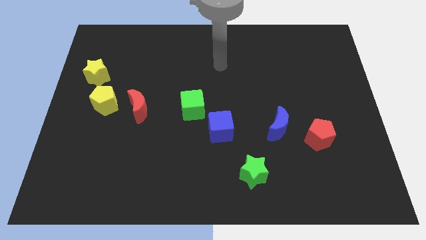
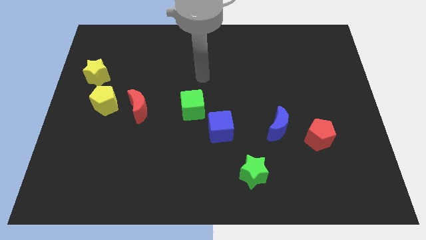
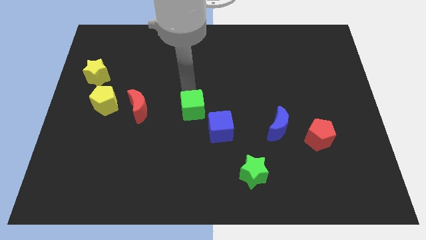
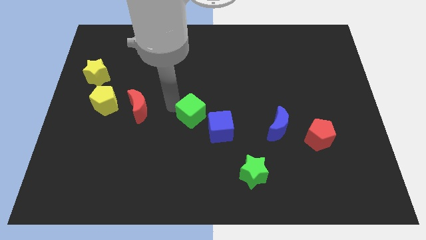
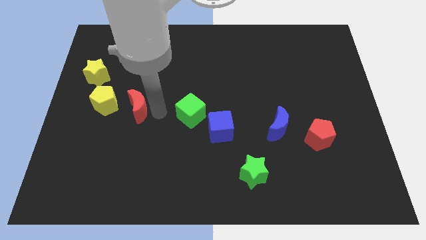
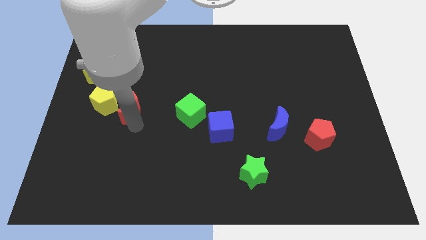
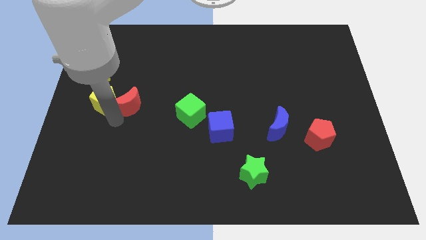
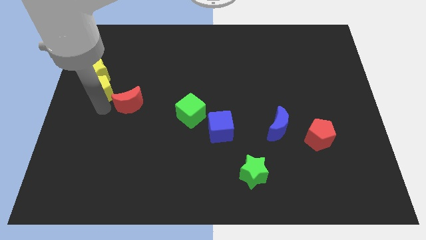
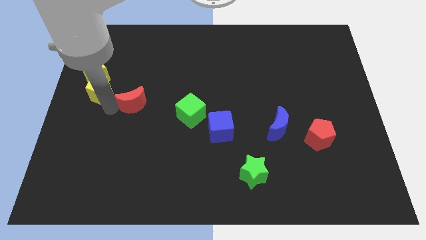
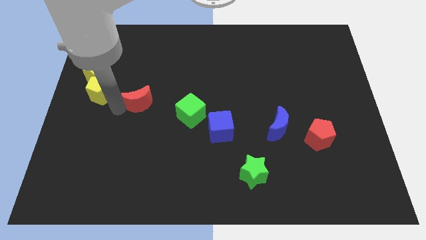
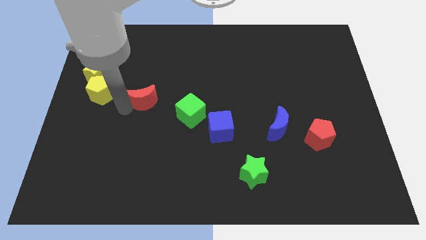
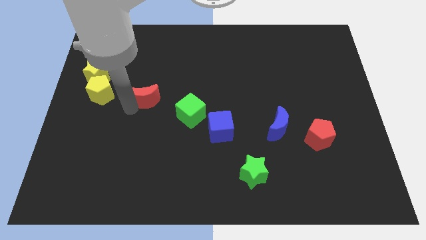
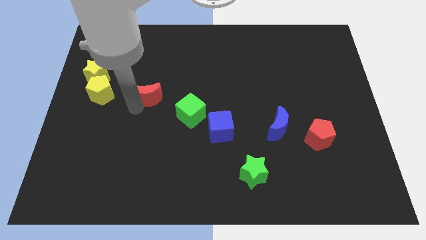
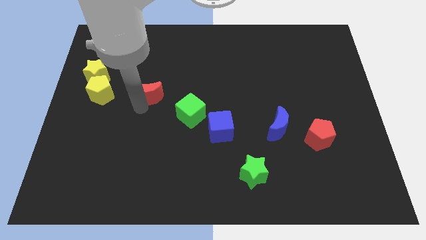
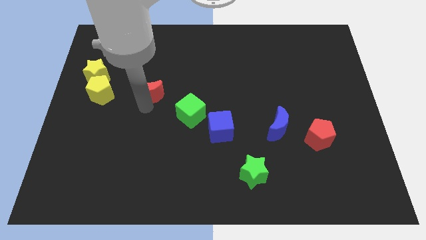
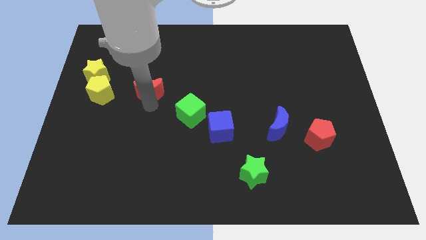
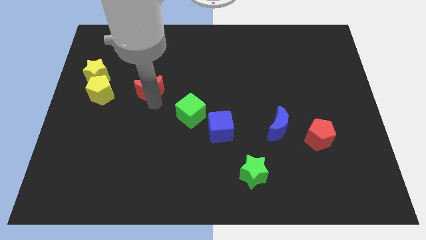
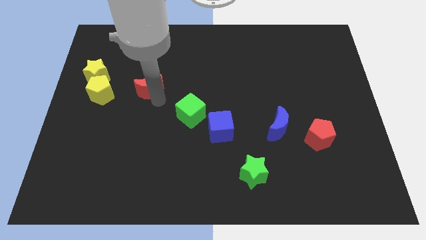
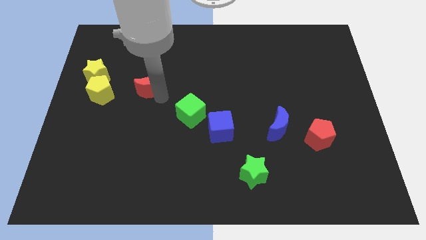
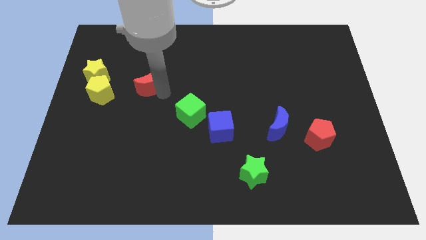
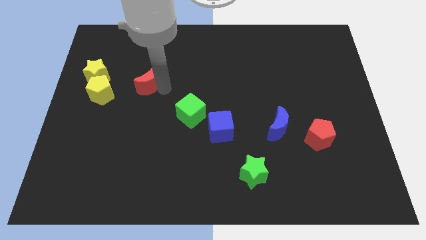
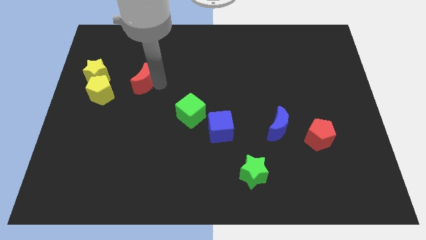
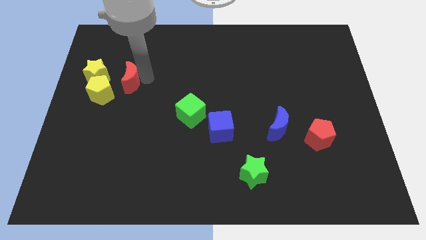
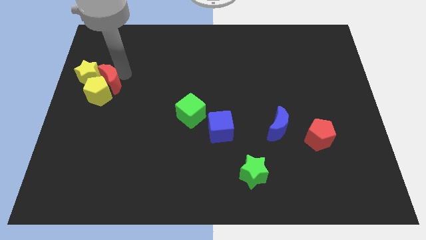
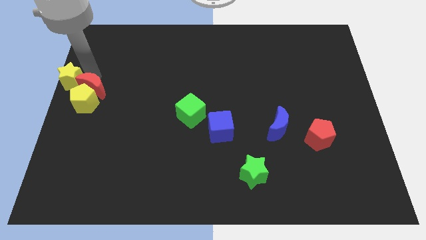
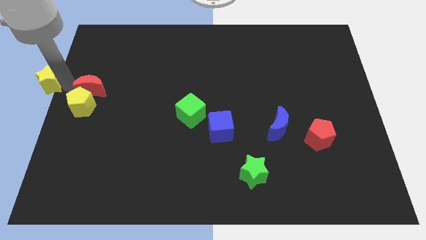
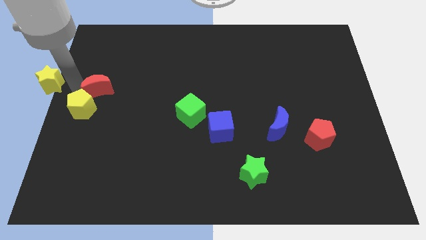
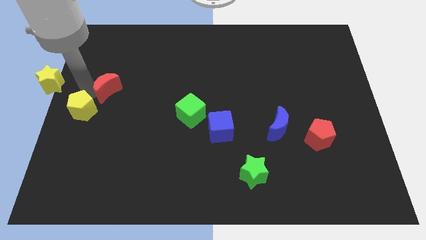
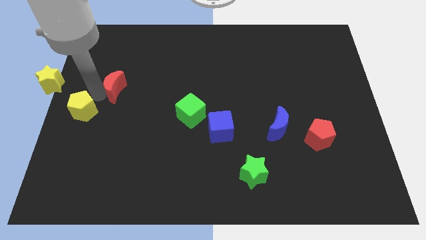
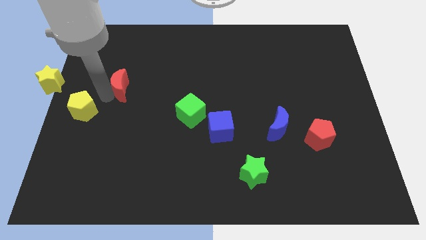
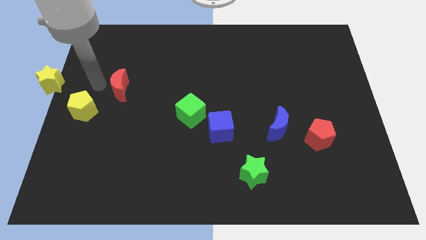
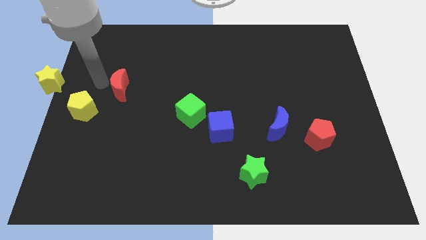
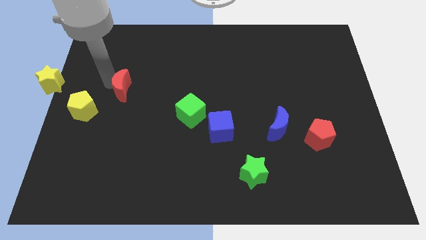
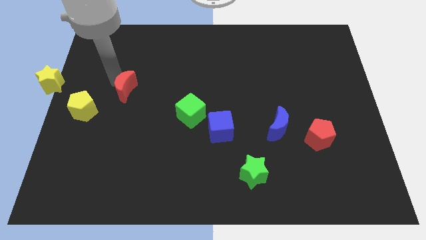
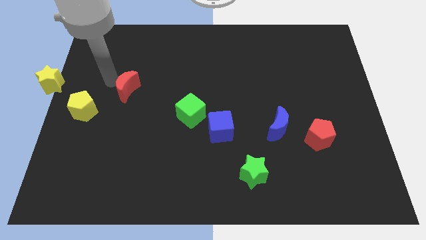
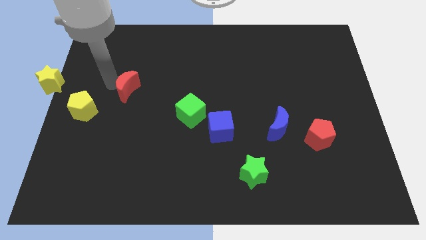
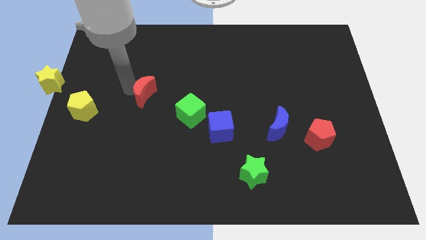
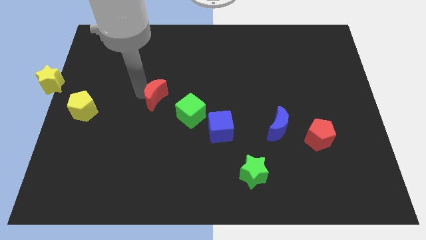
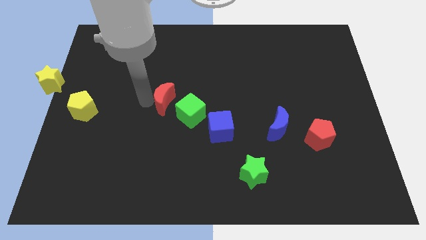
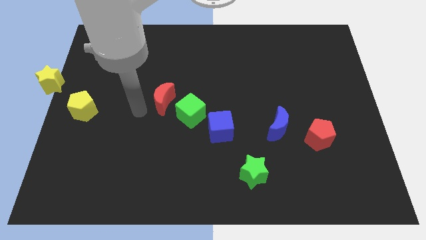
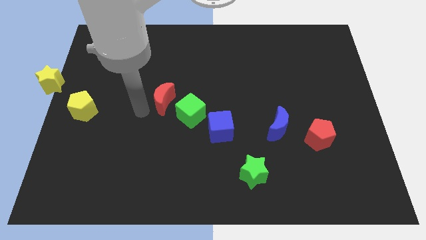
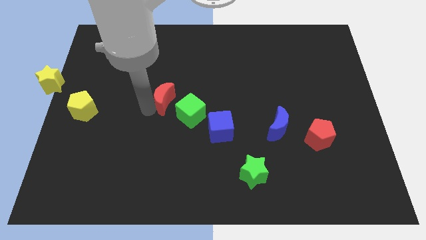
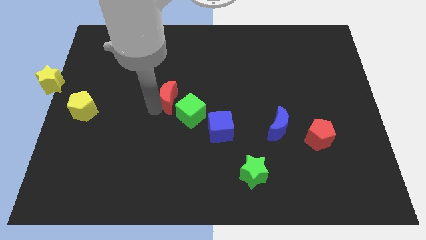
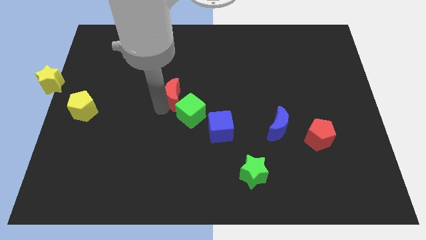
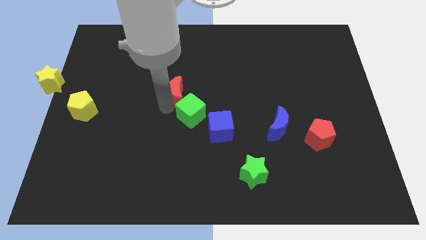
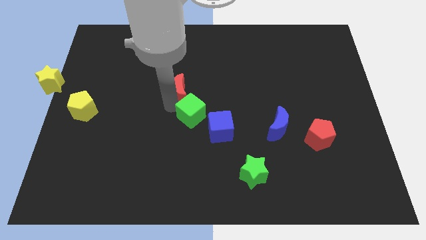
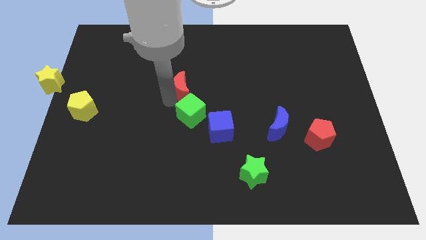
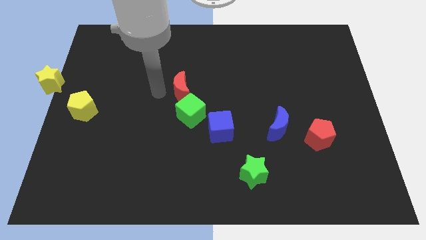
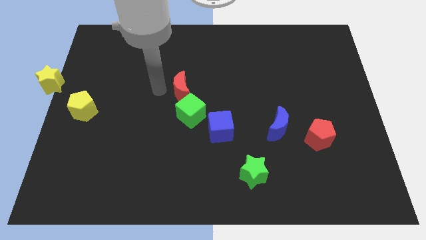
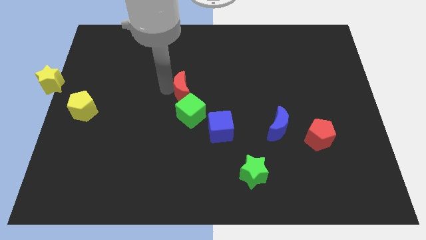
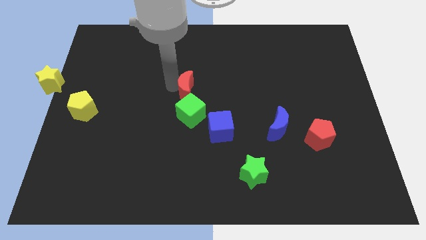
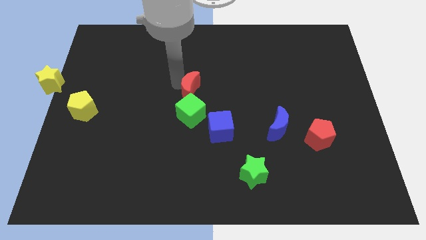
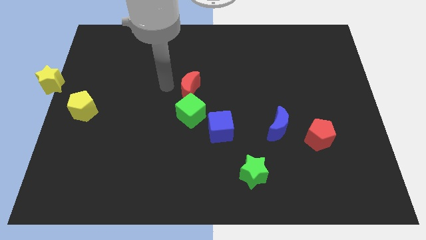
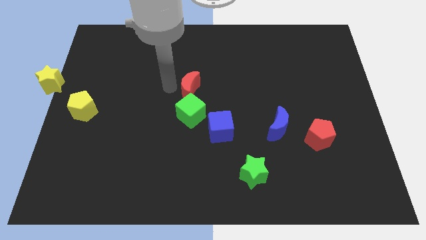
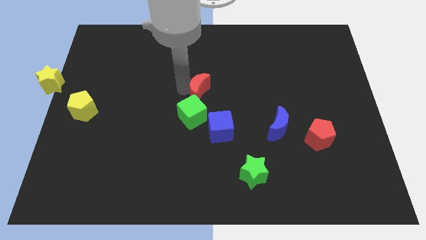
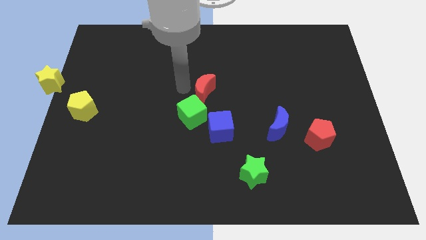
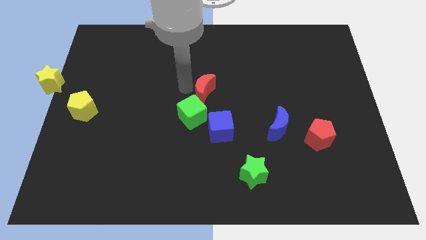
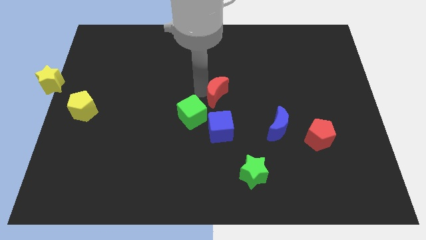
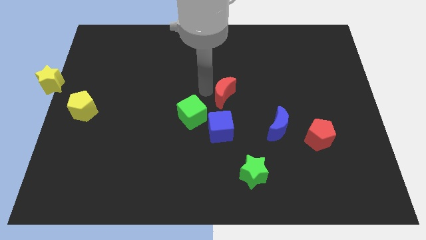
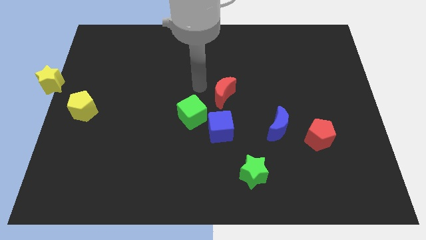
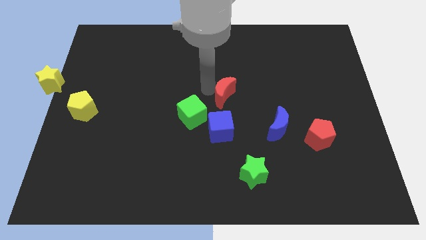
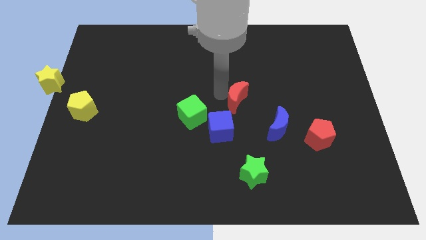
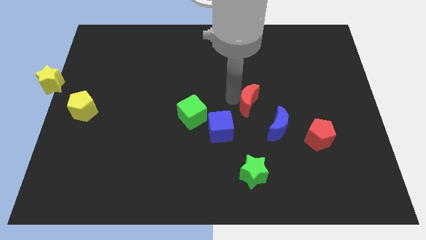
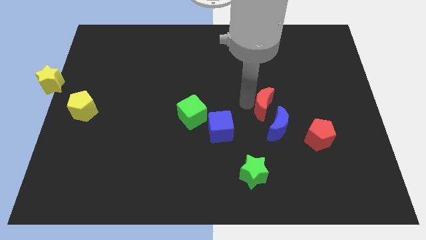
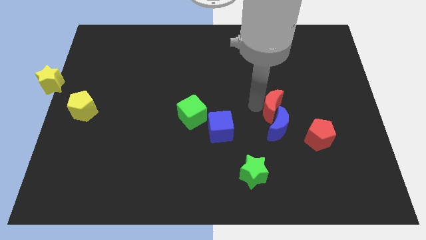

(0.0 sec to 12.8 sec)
put the red moon to the top right side of the blue moon

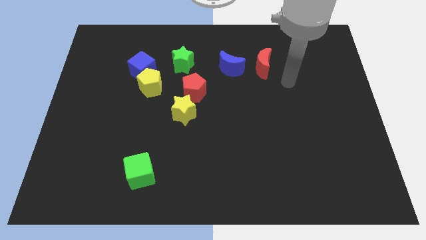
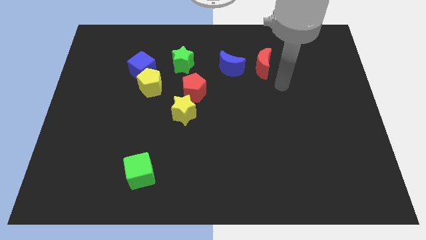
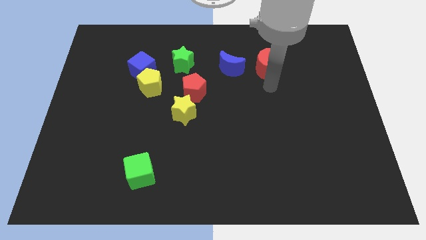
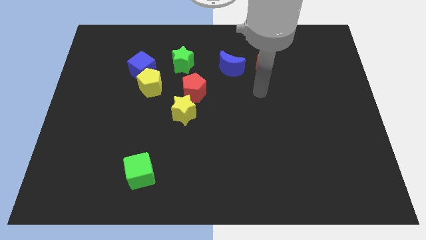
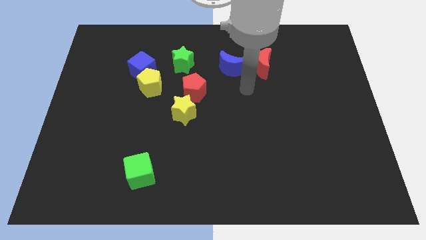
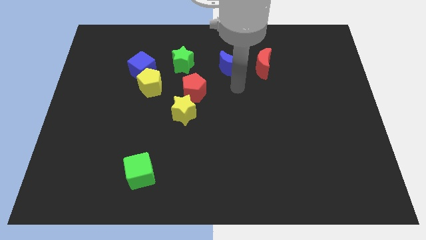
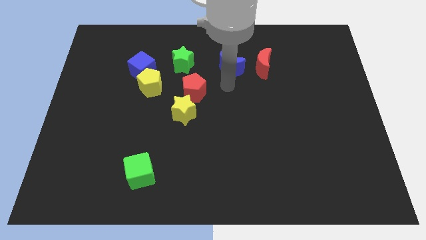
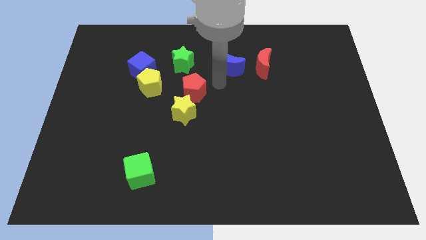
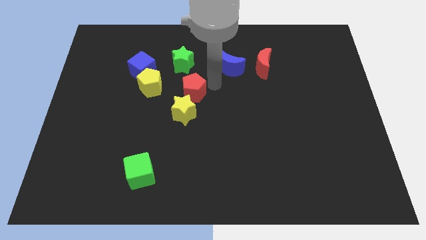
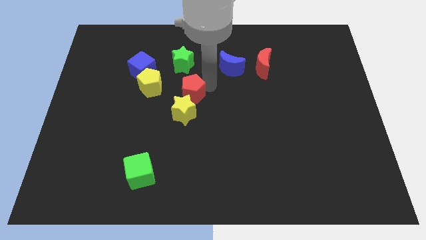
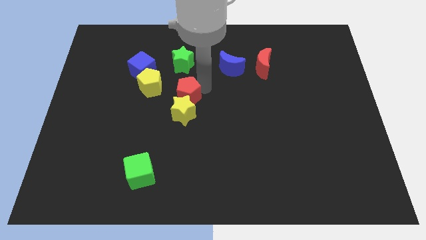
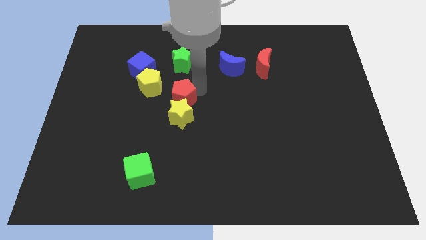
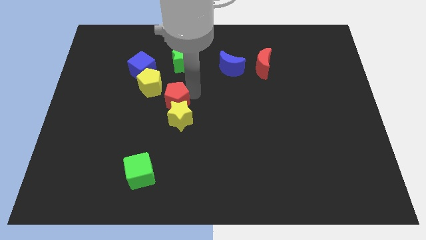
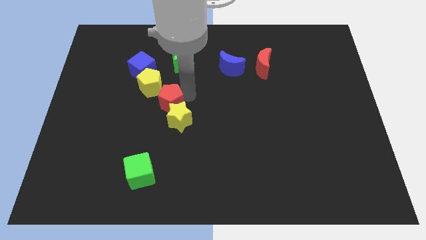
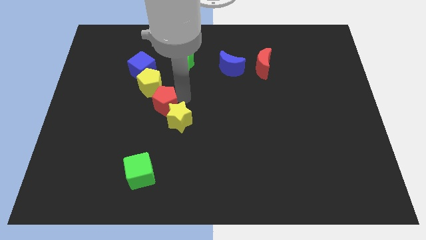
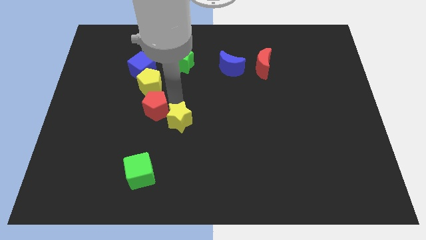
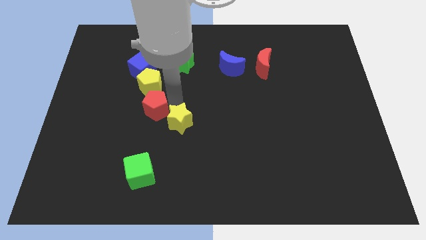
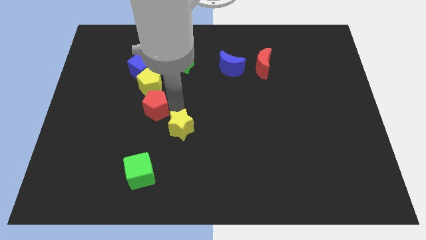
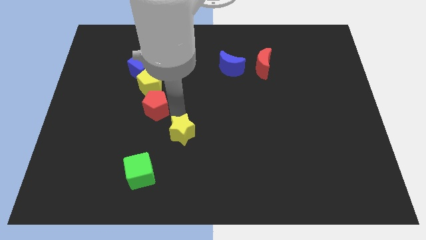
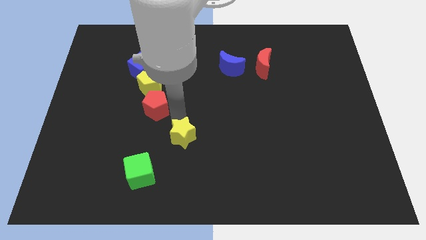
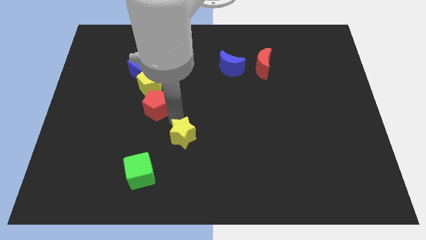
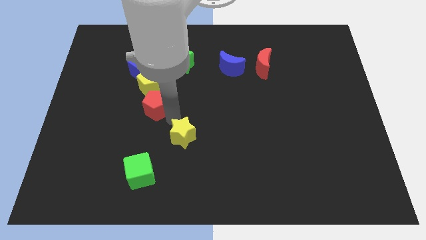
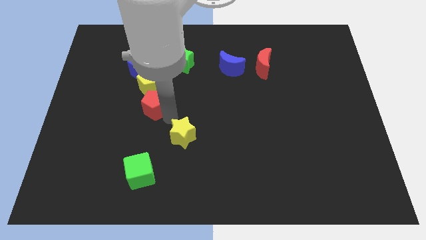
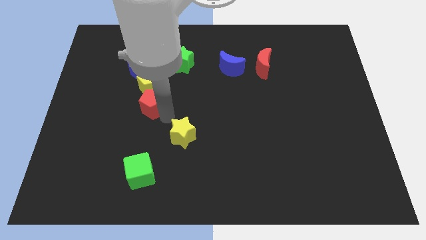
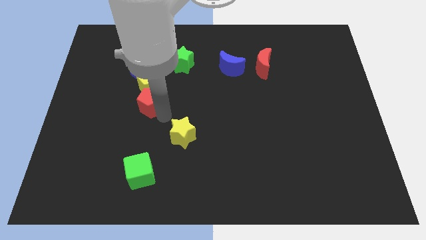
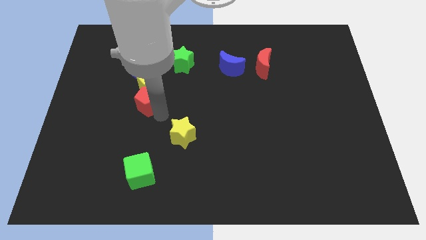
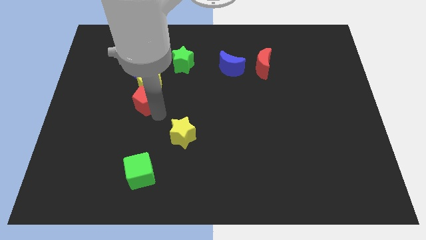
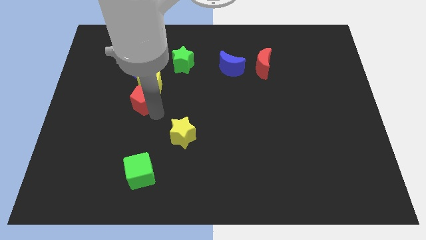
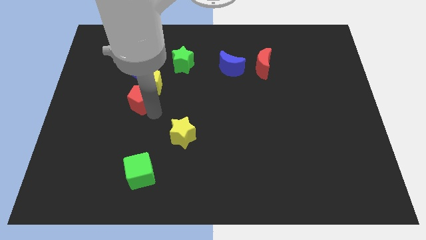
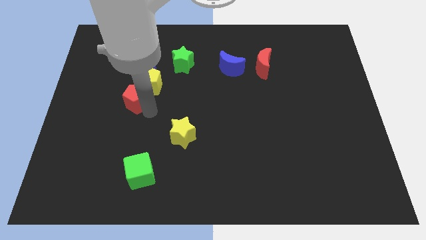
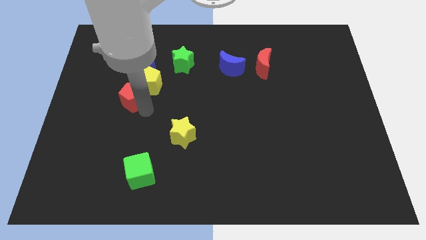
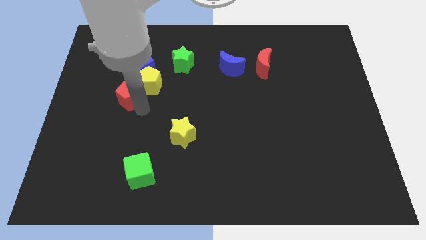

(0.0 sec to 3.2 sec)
push the red pentagon to the left side of the yellow pentagon
